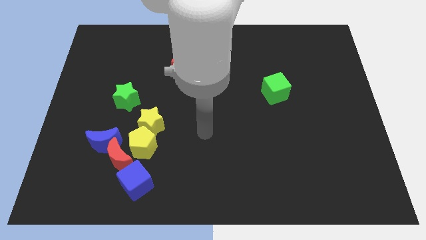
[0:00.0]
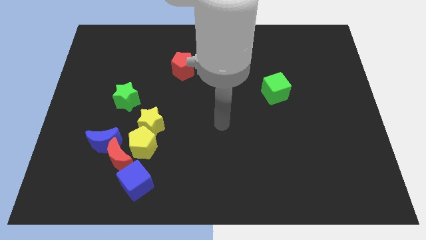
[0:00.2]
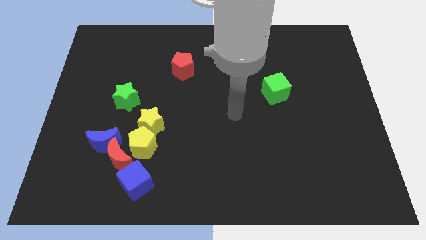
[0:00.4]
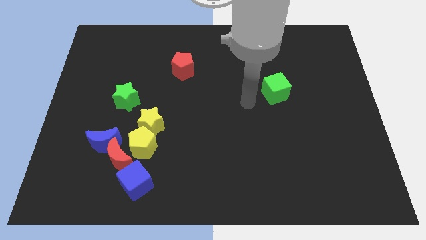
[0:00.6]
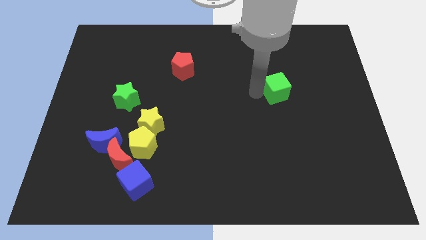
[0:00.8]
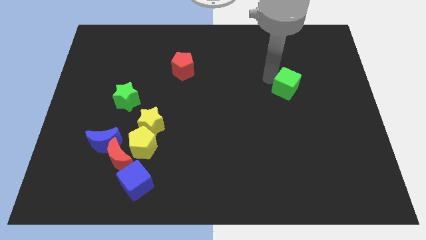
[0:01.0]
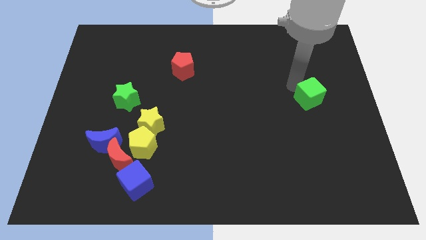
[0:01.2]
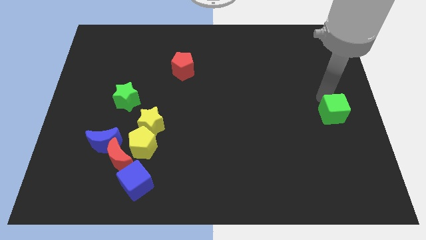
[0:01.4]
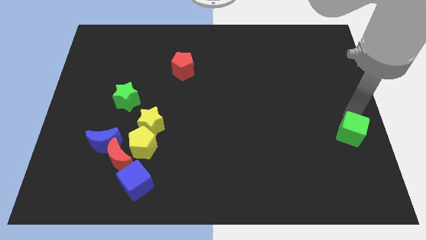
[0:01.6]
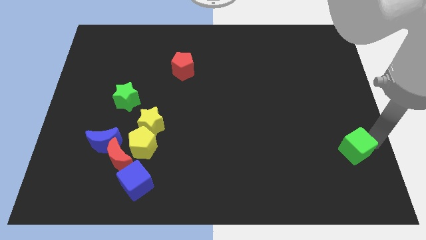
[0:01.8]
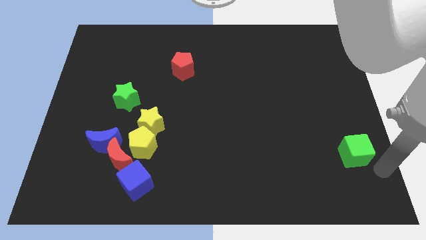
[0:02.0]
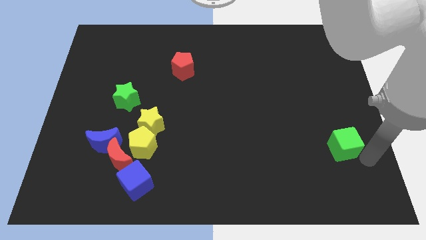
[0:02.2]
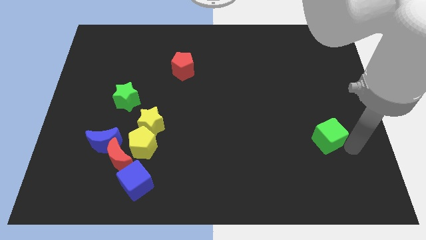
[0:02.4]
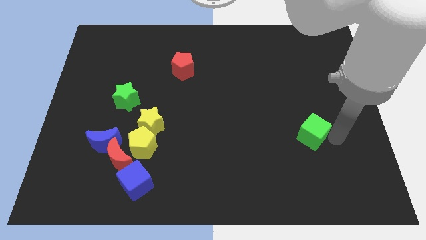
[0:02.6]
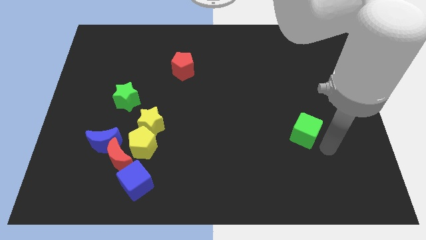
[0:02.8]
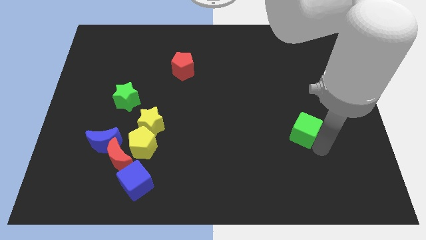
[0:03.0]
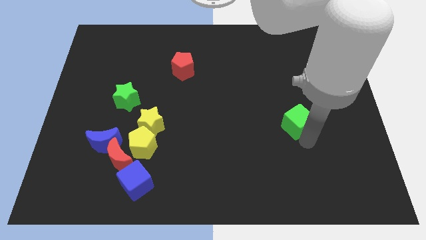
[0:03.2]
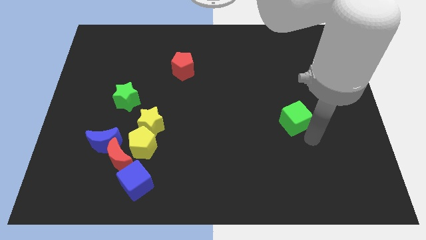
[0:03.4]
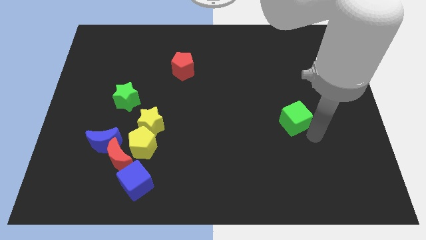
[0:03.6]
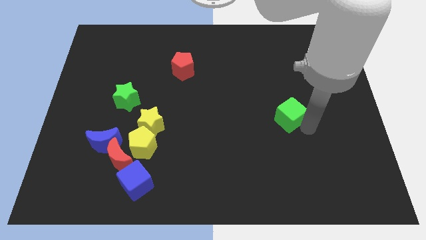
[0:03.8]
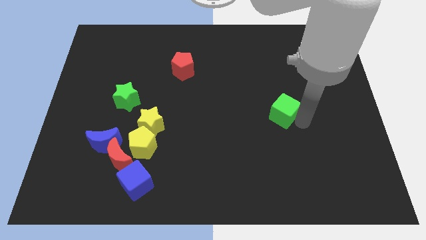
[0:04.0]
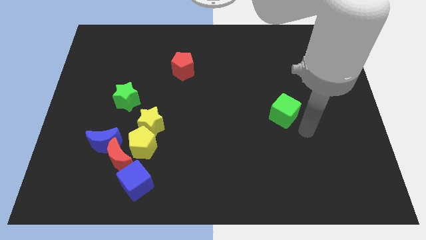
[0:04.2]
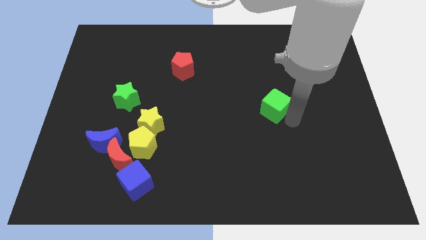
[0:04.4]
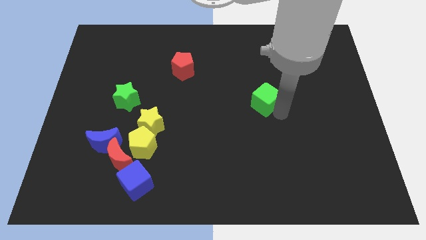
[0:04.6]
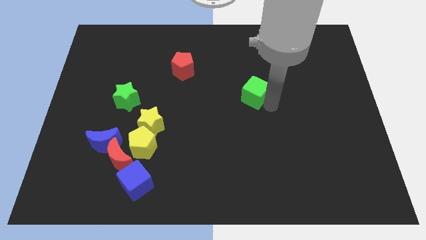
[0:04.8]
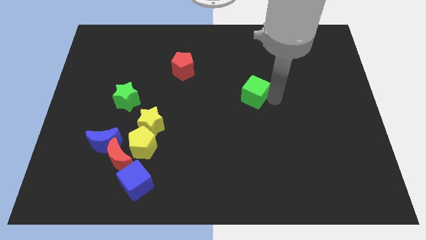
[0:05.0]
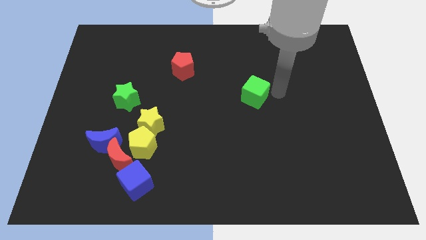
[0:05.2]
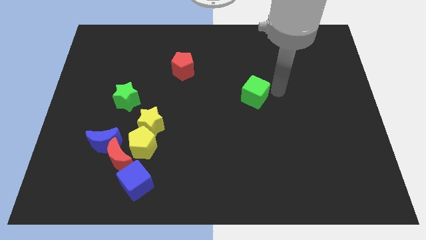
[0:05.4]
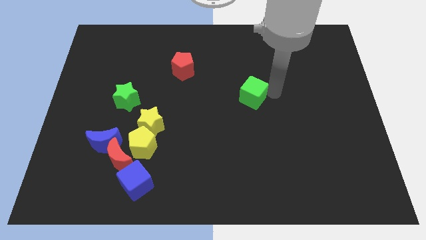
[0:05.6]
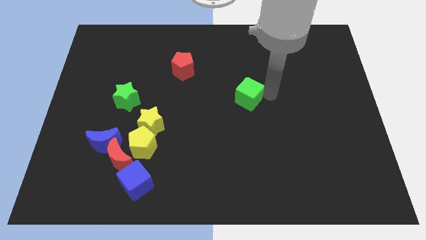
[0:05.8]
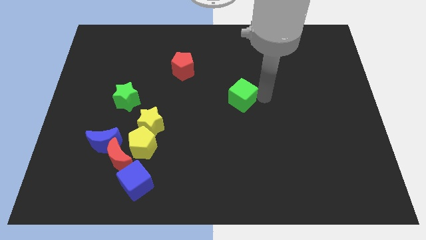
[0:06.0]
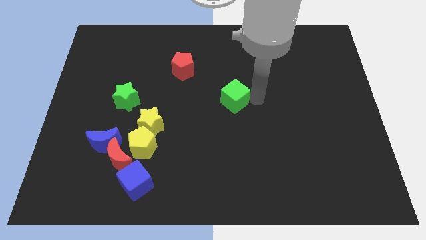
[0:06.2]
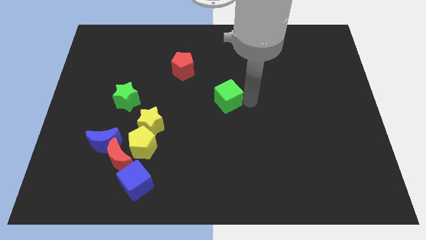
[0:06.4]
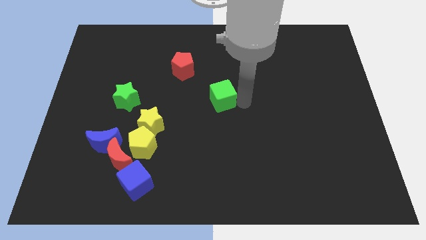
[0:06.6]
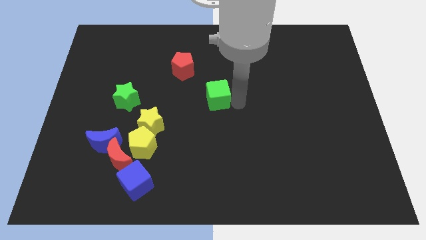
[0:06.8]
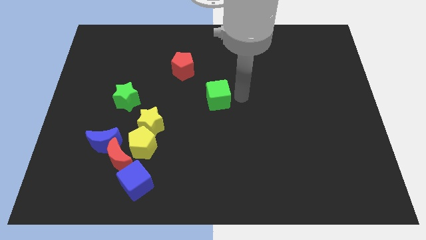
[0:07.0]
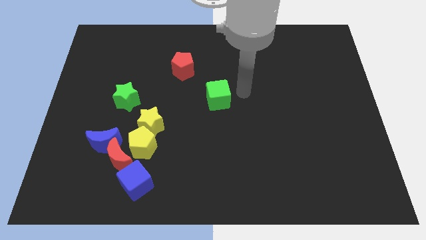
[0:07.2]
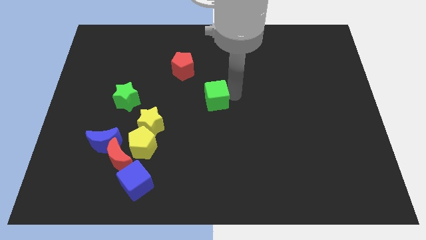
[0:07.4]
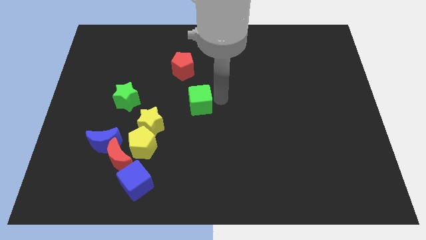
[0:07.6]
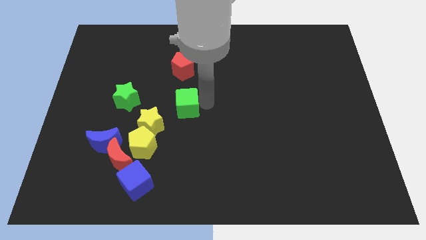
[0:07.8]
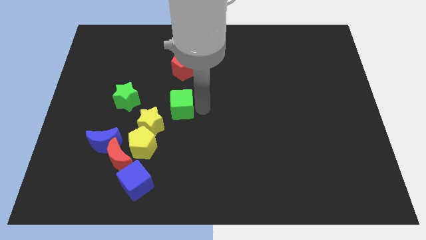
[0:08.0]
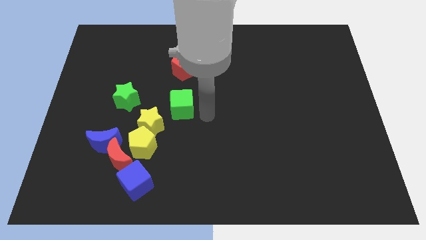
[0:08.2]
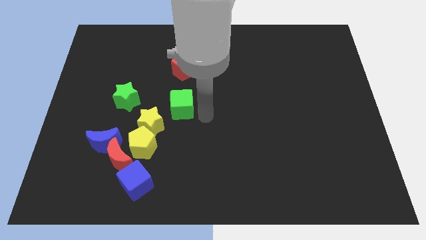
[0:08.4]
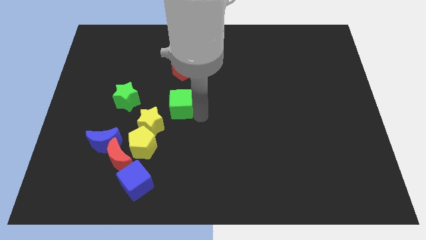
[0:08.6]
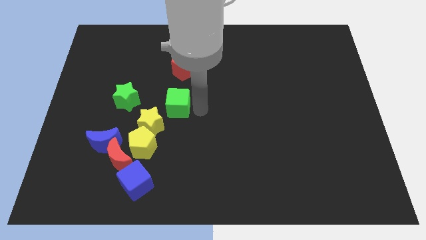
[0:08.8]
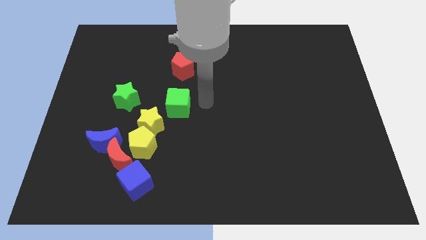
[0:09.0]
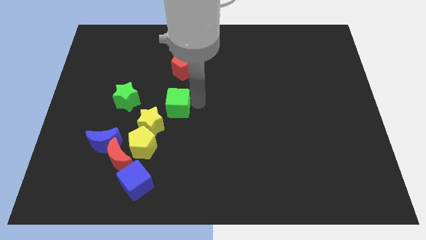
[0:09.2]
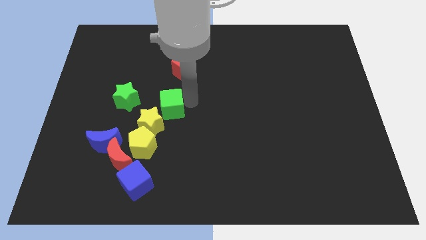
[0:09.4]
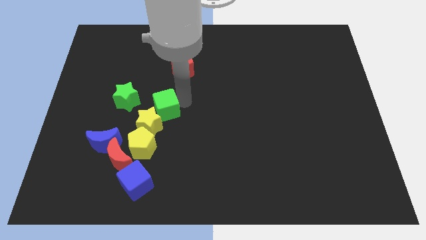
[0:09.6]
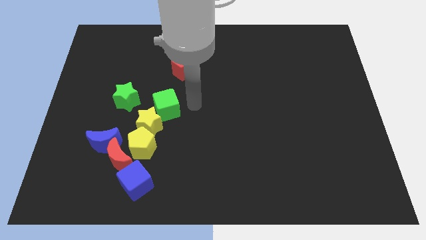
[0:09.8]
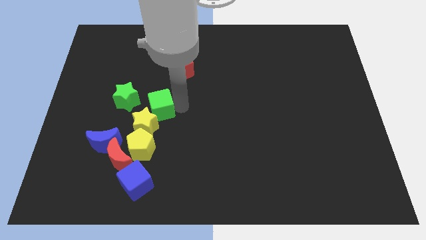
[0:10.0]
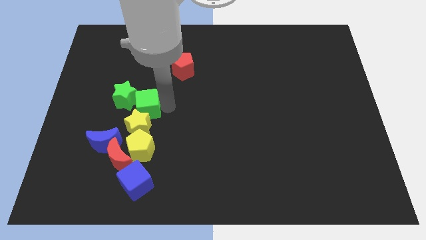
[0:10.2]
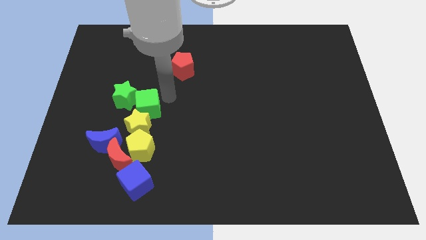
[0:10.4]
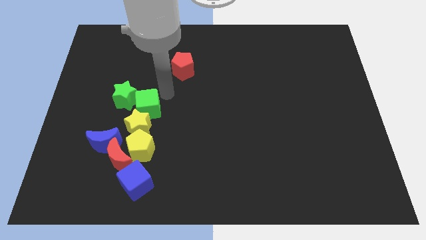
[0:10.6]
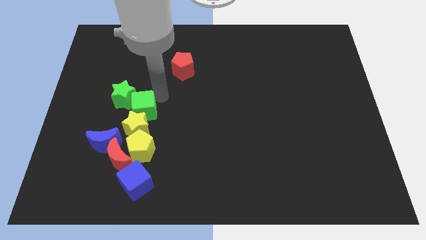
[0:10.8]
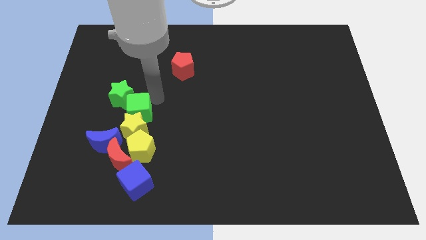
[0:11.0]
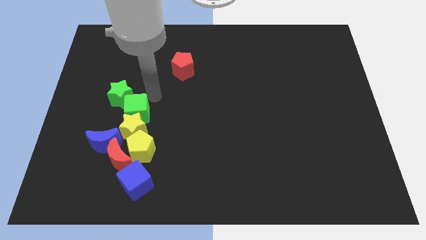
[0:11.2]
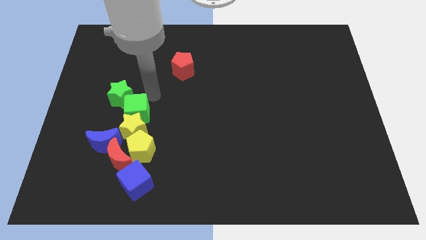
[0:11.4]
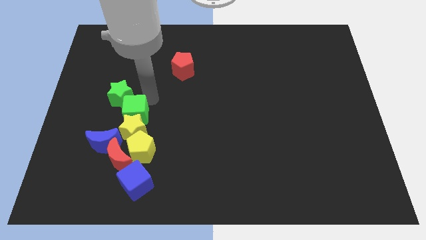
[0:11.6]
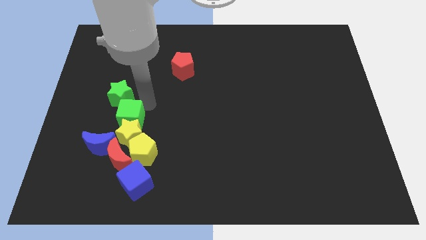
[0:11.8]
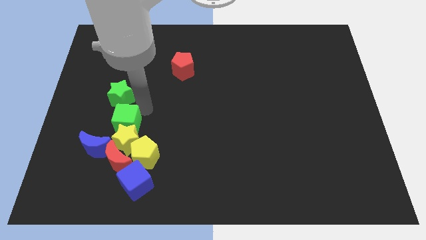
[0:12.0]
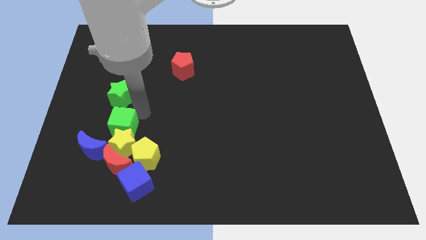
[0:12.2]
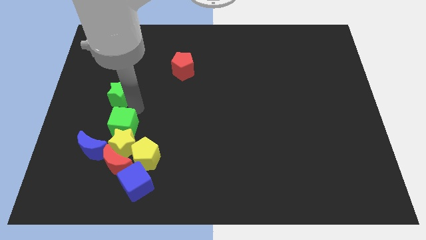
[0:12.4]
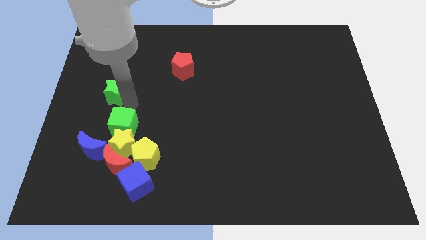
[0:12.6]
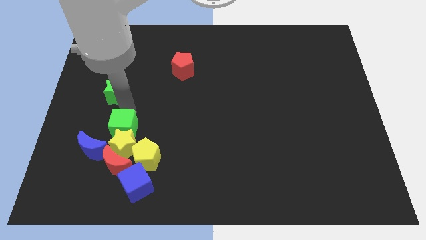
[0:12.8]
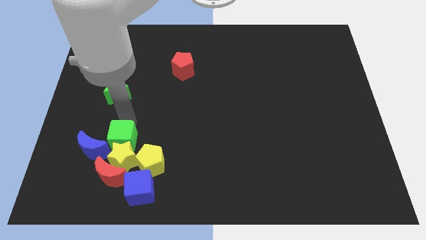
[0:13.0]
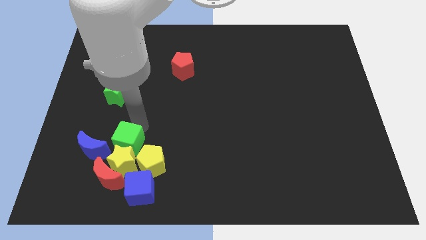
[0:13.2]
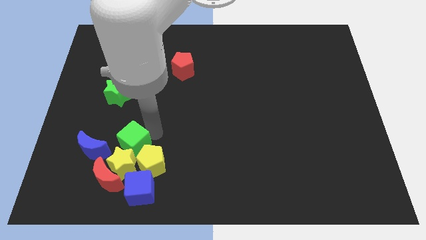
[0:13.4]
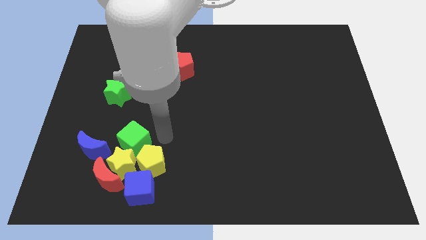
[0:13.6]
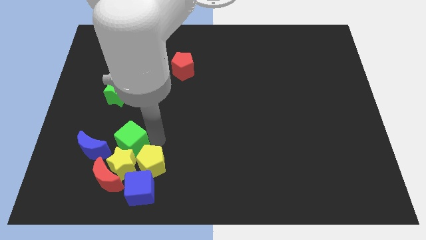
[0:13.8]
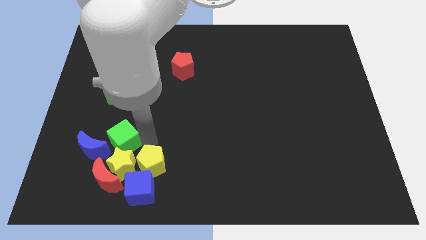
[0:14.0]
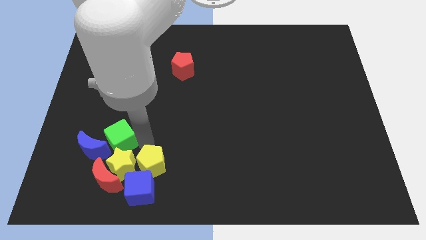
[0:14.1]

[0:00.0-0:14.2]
move the green cube to the blue moon
